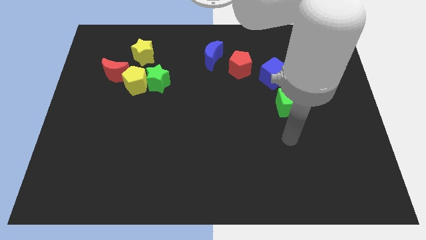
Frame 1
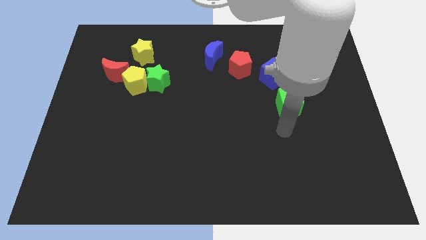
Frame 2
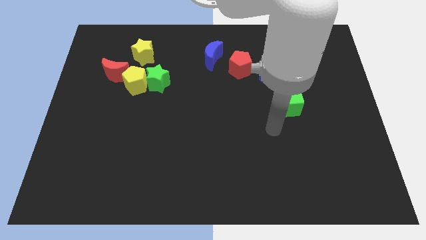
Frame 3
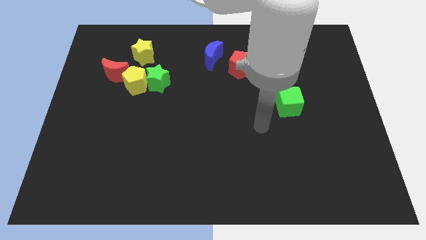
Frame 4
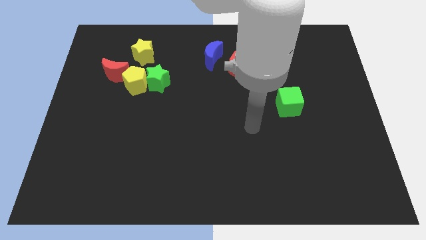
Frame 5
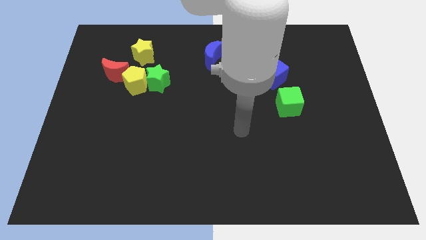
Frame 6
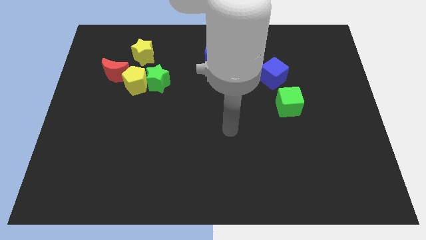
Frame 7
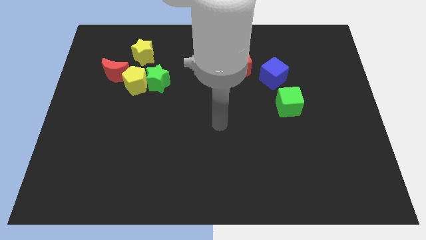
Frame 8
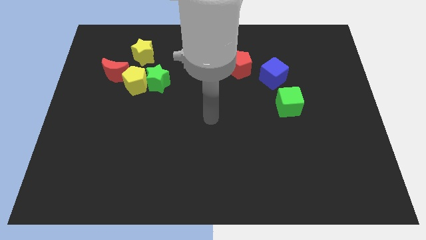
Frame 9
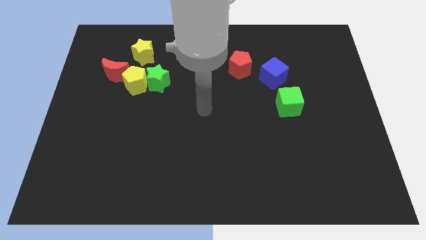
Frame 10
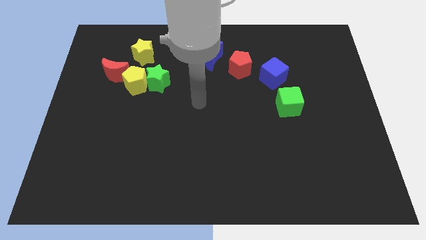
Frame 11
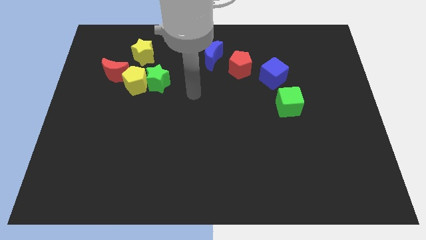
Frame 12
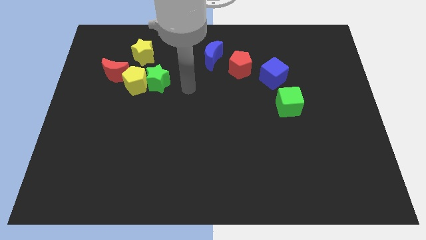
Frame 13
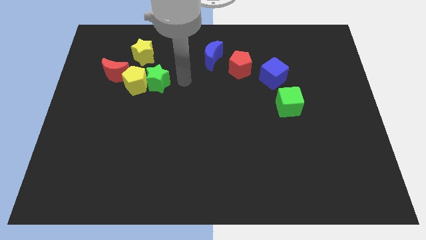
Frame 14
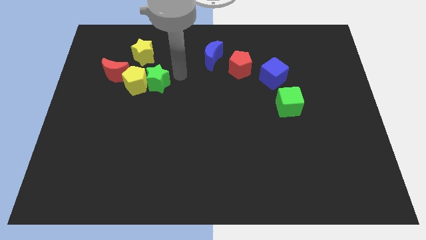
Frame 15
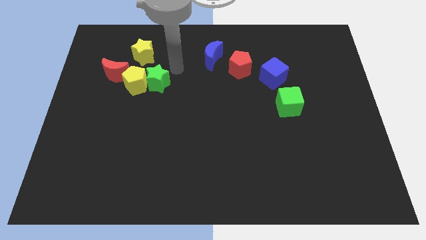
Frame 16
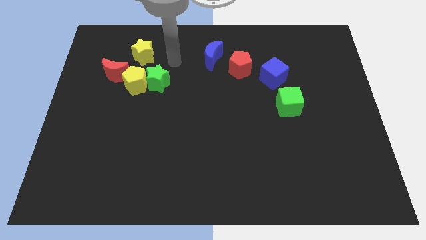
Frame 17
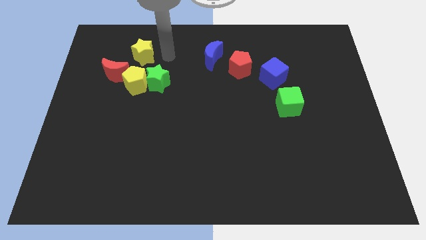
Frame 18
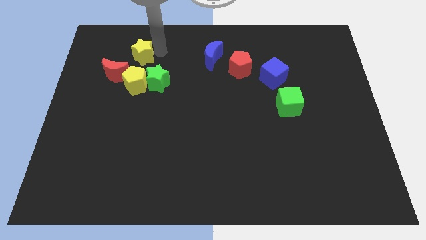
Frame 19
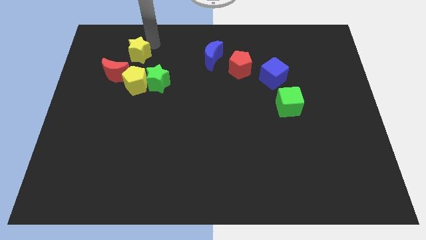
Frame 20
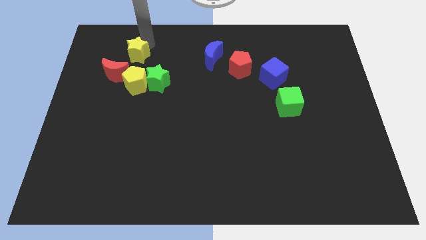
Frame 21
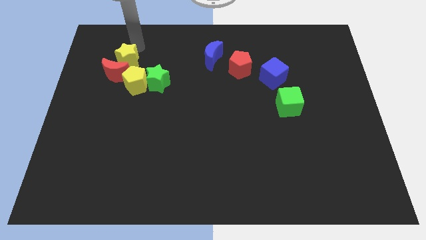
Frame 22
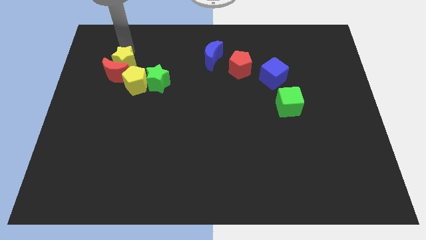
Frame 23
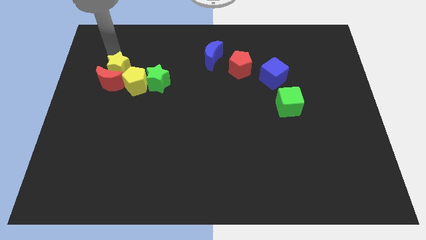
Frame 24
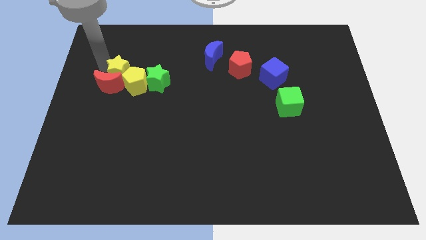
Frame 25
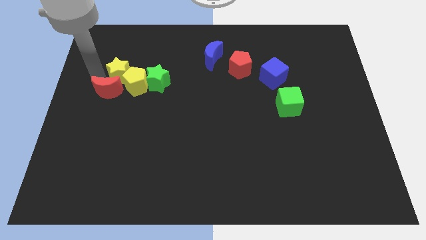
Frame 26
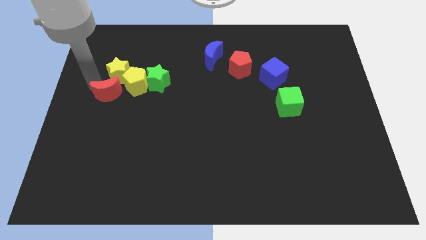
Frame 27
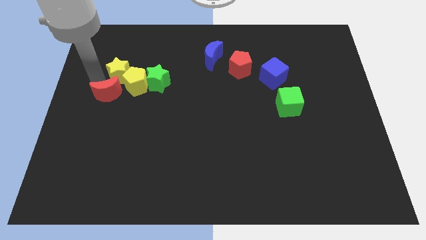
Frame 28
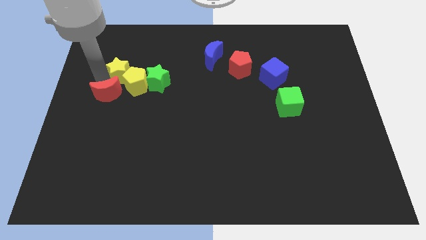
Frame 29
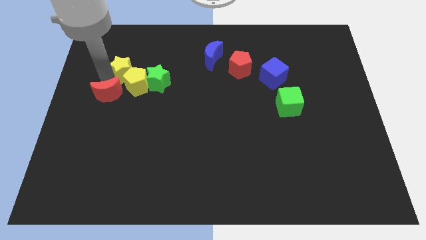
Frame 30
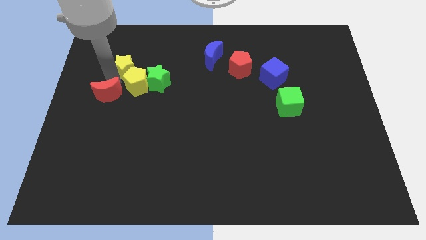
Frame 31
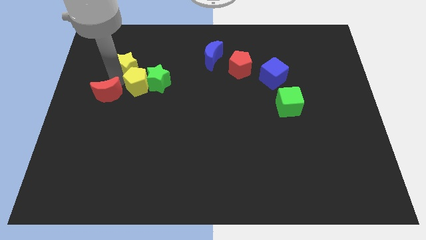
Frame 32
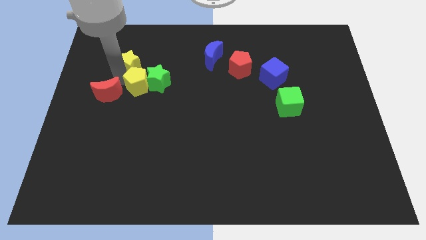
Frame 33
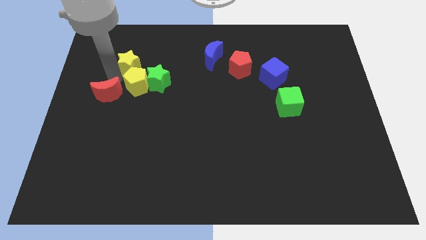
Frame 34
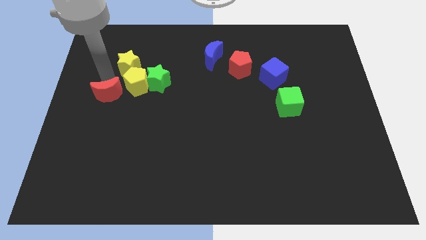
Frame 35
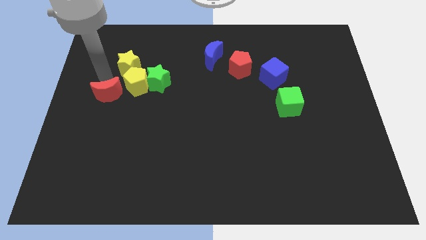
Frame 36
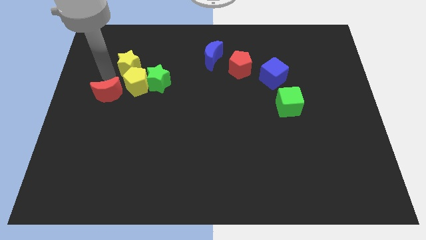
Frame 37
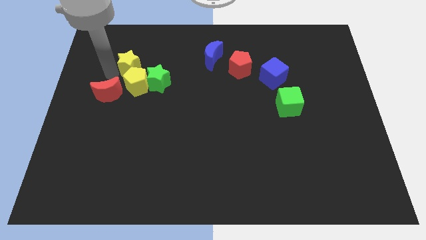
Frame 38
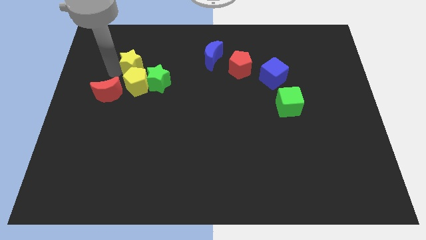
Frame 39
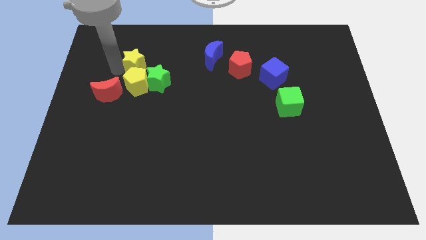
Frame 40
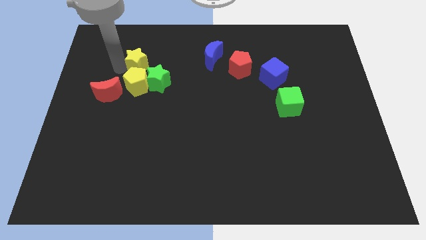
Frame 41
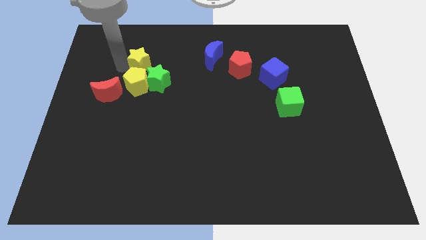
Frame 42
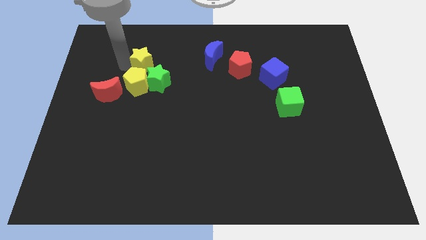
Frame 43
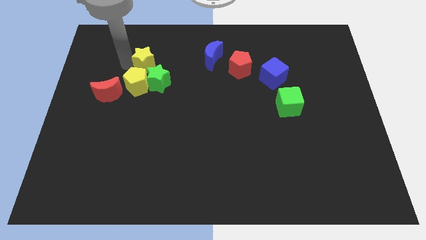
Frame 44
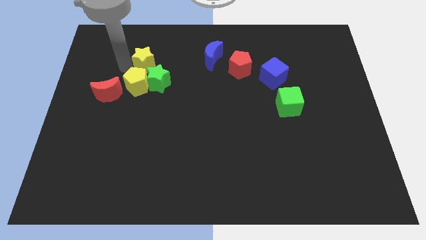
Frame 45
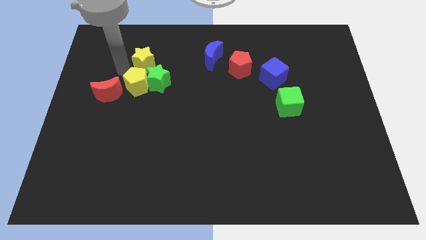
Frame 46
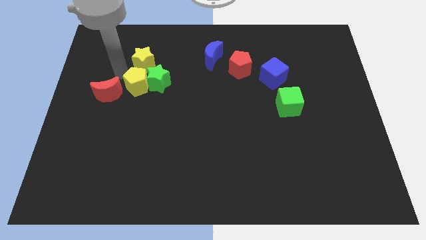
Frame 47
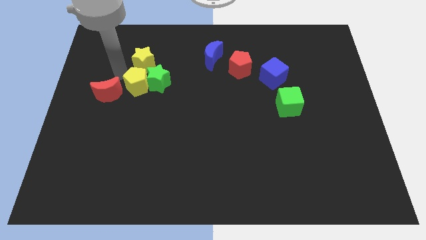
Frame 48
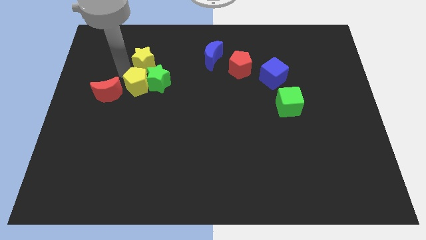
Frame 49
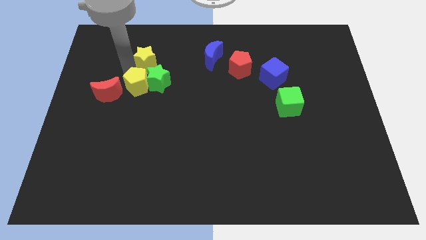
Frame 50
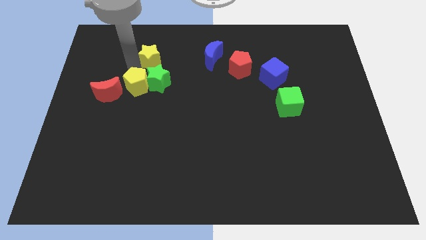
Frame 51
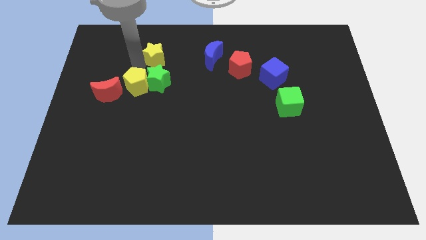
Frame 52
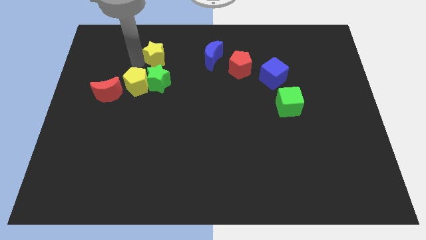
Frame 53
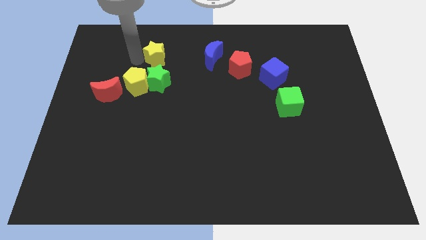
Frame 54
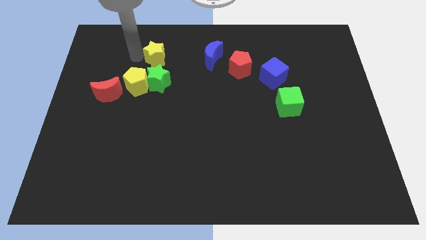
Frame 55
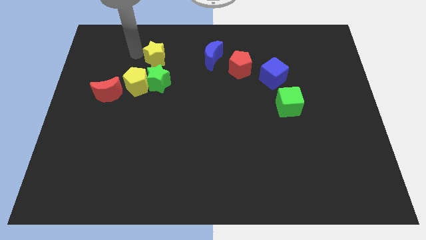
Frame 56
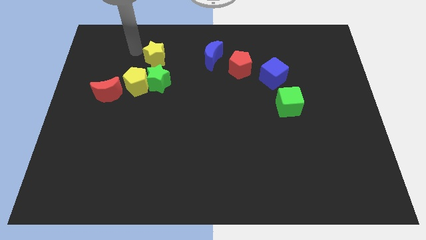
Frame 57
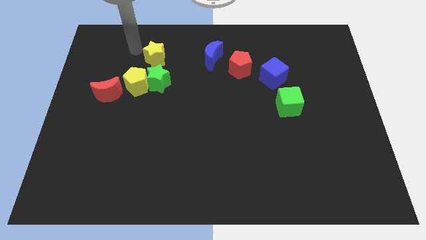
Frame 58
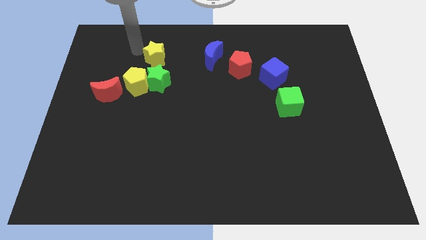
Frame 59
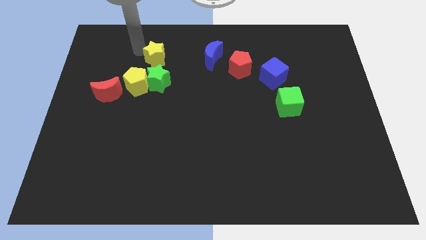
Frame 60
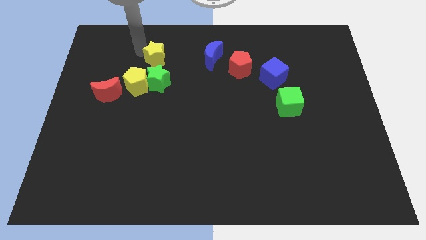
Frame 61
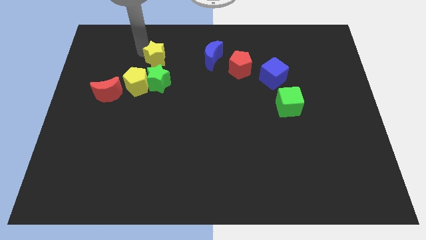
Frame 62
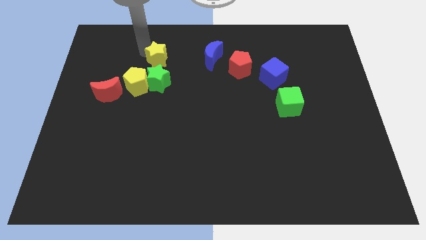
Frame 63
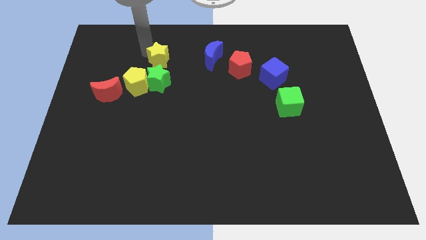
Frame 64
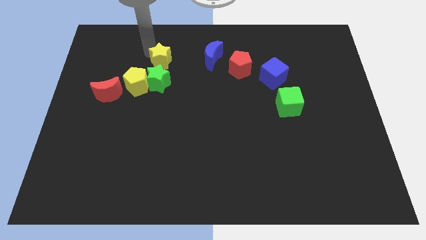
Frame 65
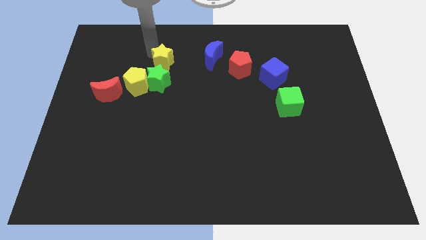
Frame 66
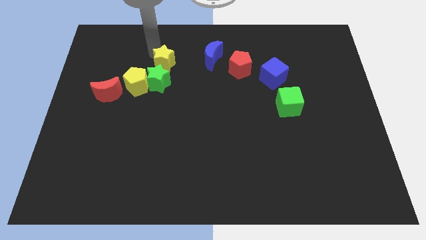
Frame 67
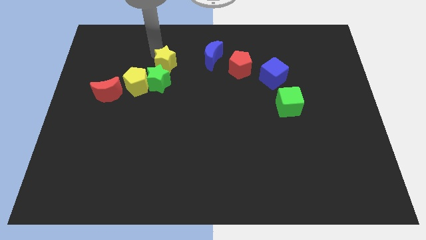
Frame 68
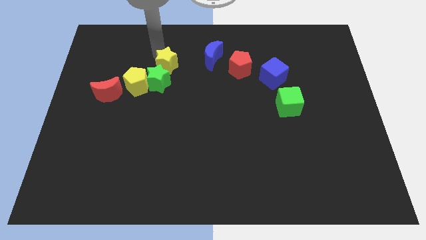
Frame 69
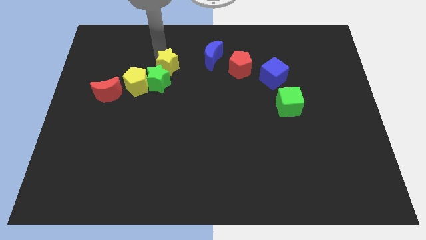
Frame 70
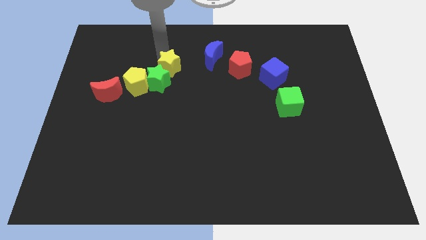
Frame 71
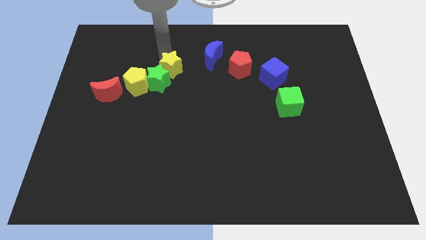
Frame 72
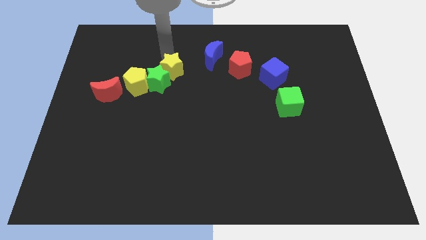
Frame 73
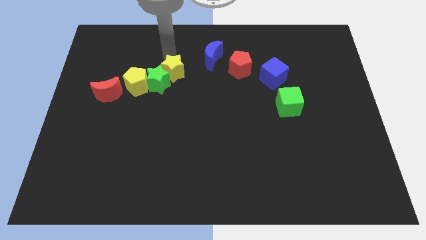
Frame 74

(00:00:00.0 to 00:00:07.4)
move the yellow star to the right side of the yellow pentagon

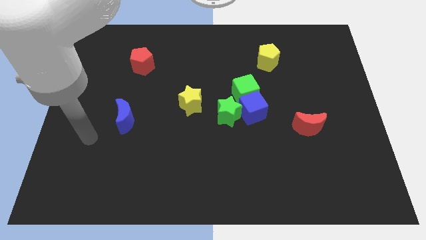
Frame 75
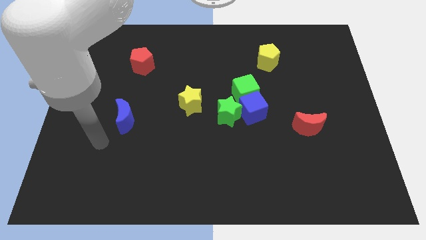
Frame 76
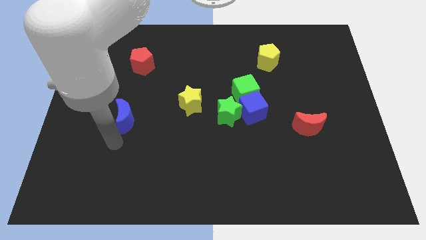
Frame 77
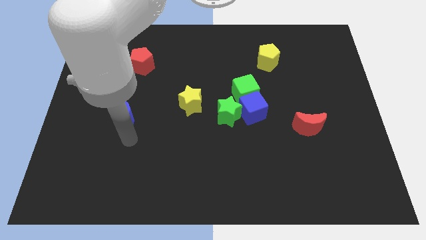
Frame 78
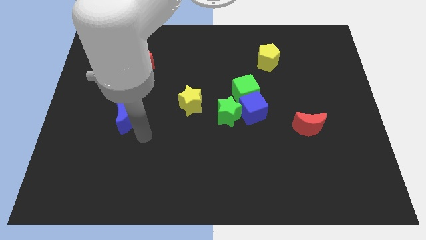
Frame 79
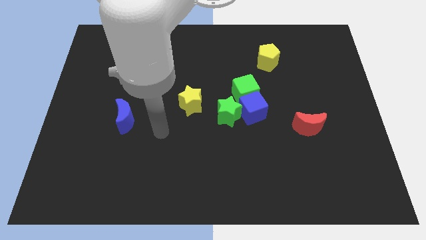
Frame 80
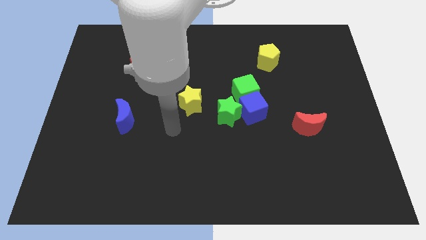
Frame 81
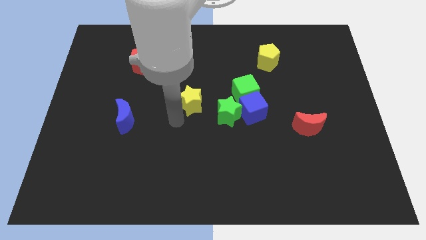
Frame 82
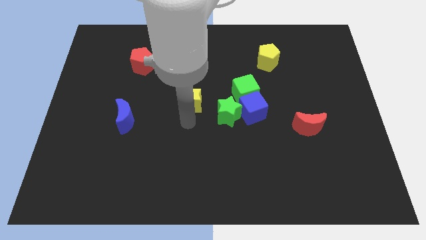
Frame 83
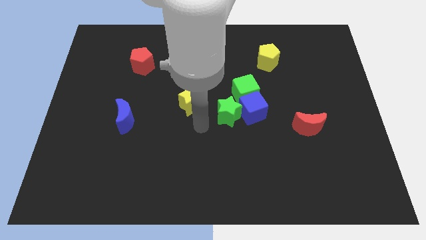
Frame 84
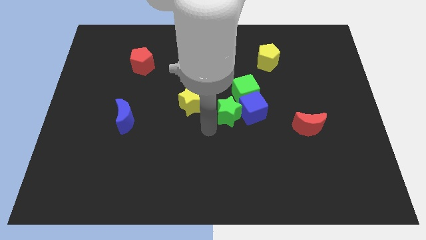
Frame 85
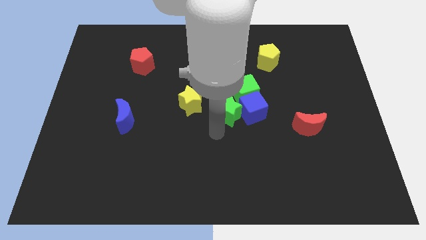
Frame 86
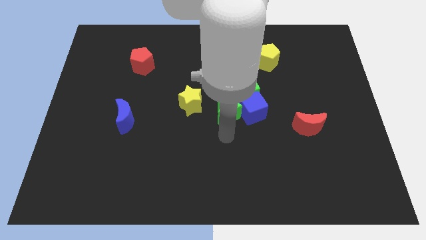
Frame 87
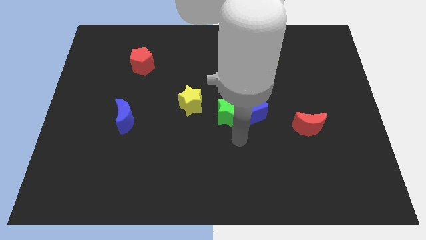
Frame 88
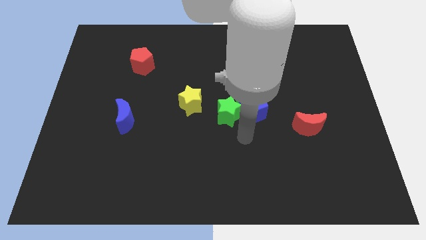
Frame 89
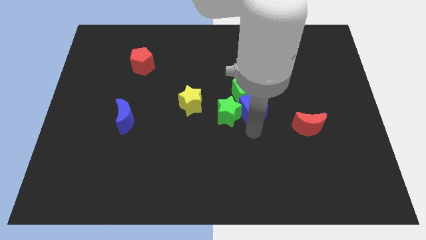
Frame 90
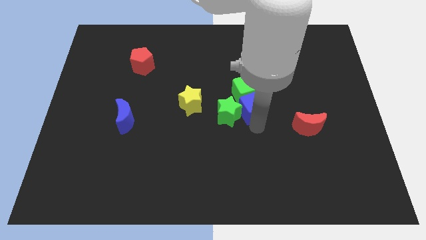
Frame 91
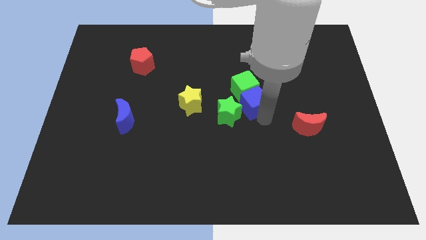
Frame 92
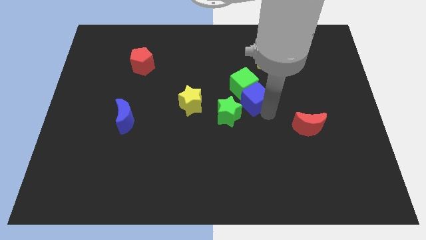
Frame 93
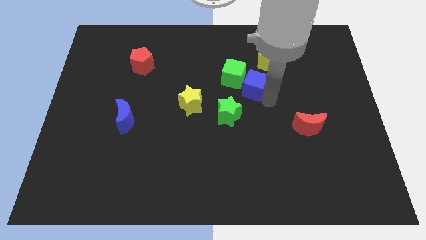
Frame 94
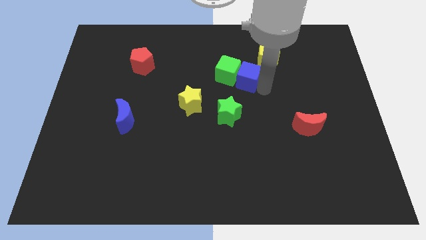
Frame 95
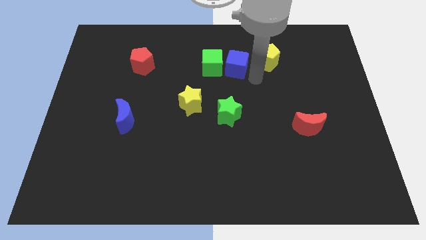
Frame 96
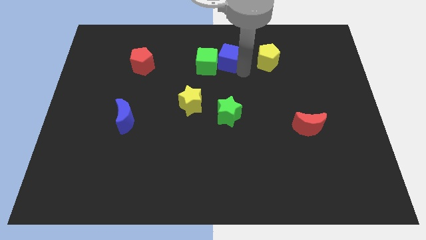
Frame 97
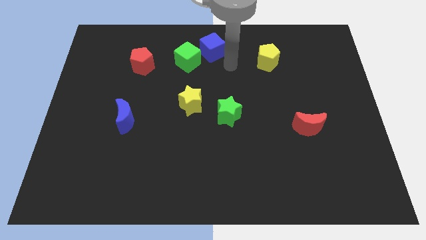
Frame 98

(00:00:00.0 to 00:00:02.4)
put the green cube just right of the red pentagon
